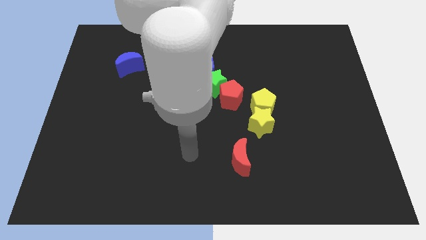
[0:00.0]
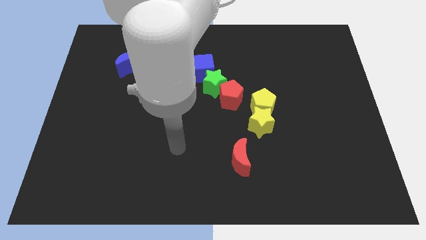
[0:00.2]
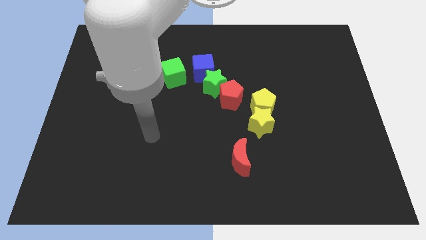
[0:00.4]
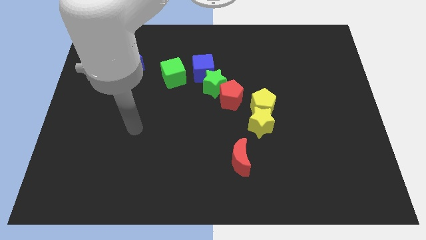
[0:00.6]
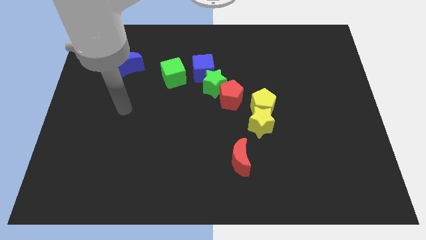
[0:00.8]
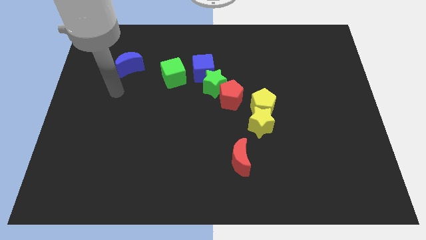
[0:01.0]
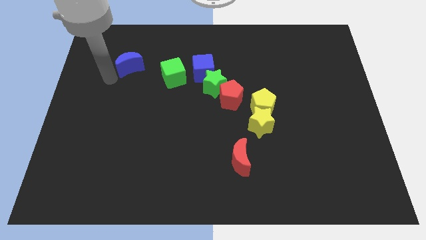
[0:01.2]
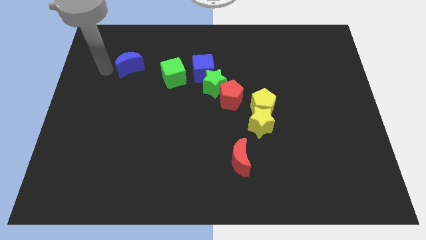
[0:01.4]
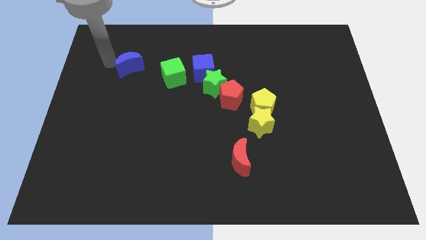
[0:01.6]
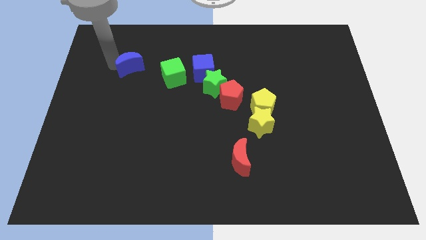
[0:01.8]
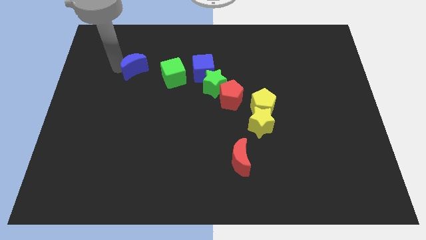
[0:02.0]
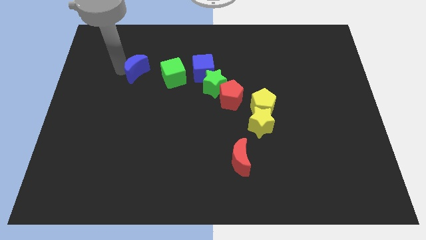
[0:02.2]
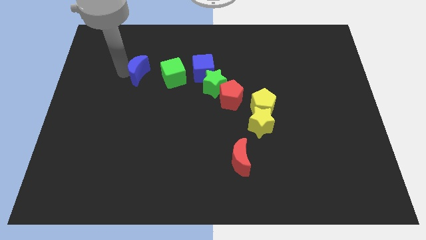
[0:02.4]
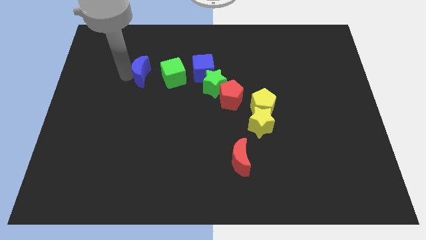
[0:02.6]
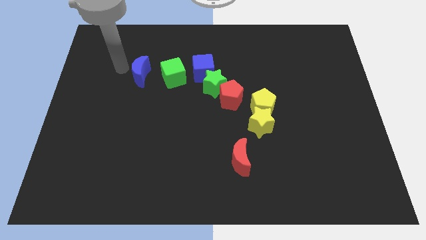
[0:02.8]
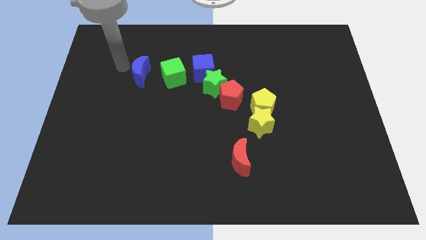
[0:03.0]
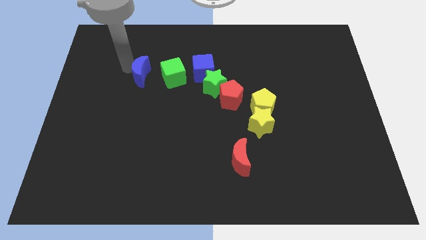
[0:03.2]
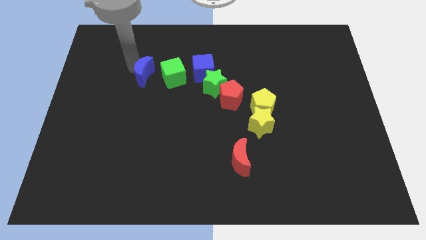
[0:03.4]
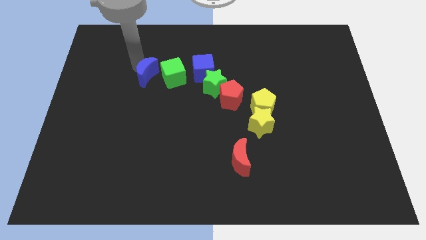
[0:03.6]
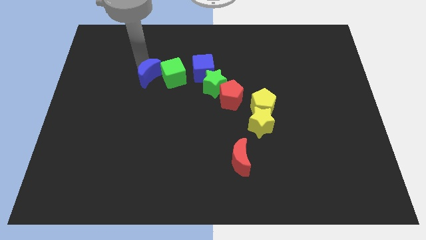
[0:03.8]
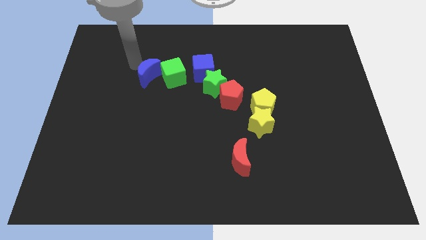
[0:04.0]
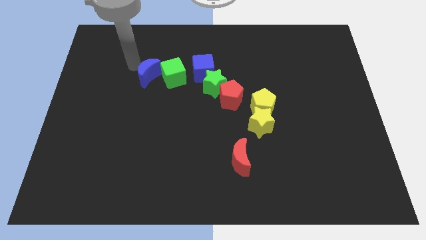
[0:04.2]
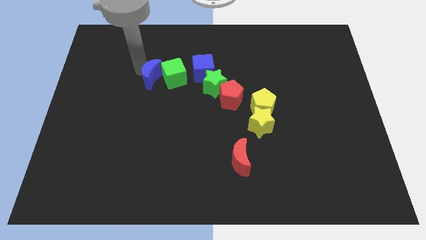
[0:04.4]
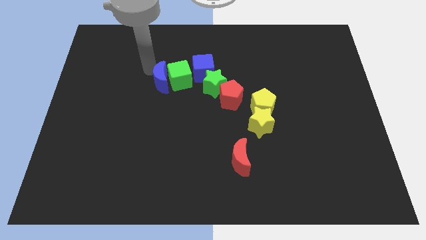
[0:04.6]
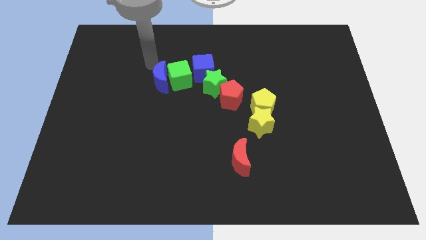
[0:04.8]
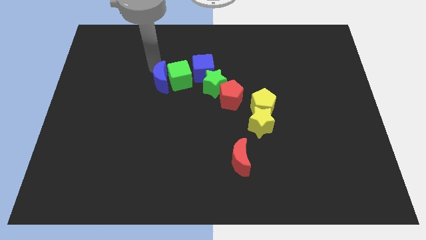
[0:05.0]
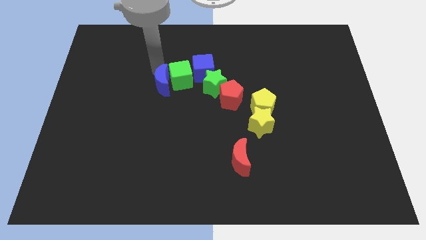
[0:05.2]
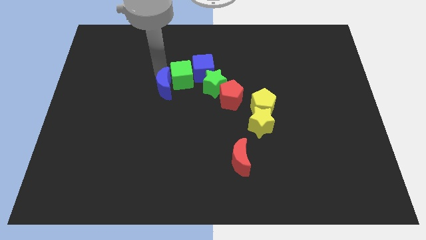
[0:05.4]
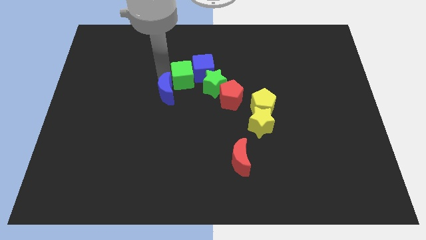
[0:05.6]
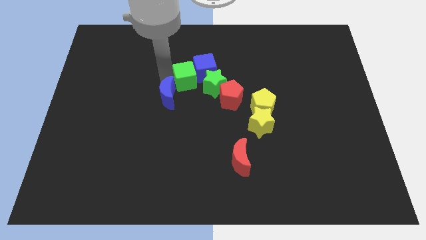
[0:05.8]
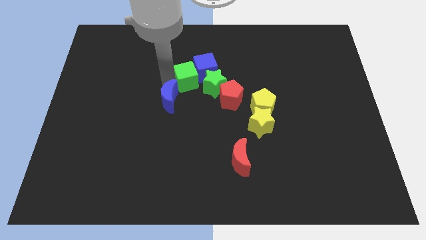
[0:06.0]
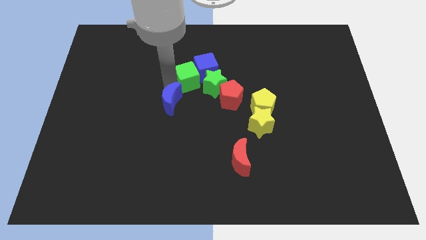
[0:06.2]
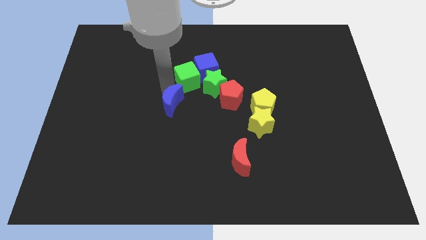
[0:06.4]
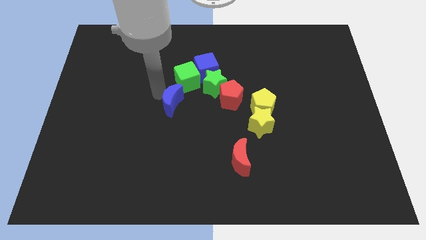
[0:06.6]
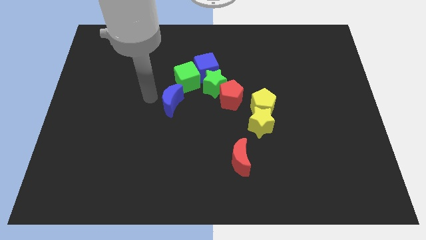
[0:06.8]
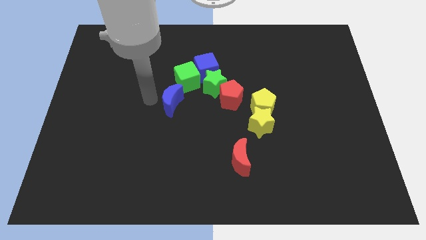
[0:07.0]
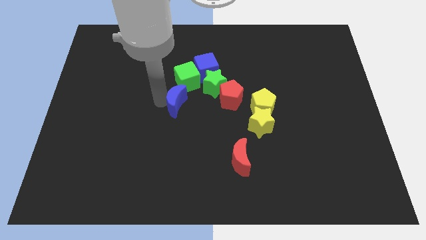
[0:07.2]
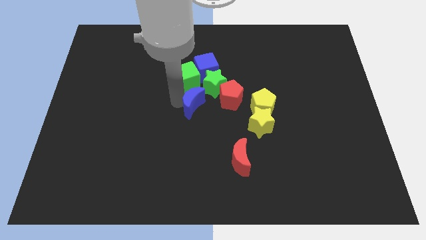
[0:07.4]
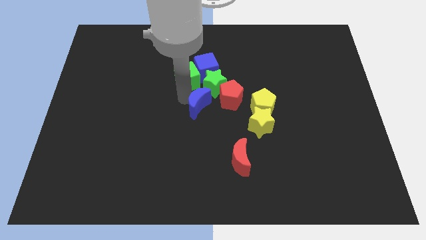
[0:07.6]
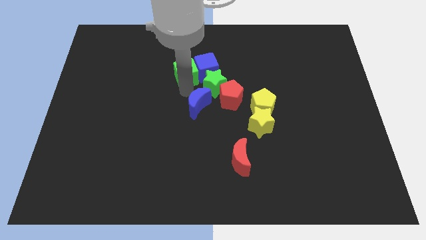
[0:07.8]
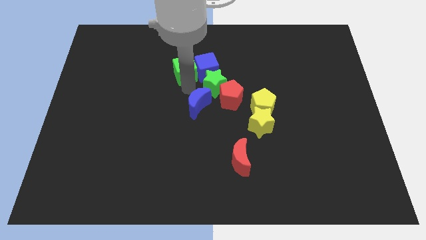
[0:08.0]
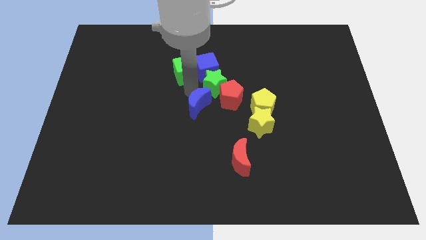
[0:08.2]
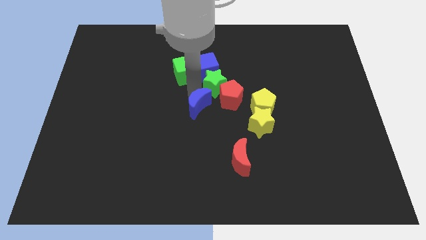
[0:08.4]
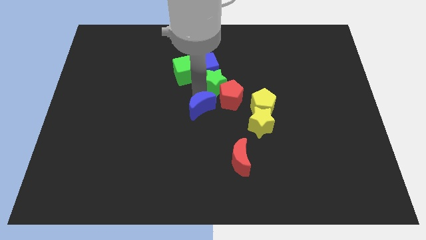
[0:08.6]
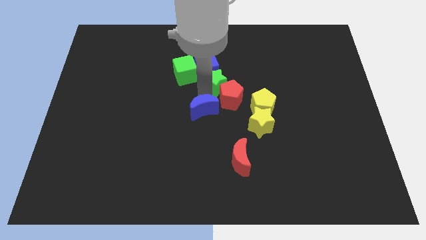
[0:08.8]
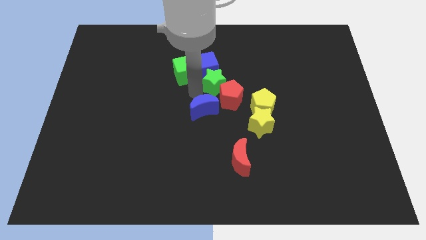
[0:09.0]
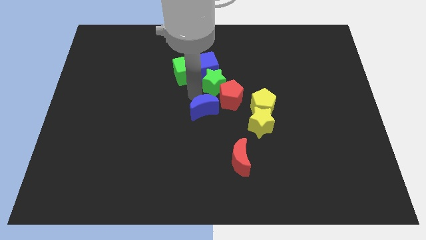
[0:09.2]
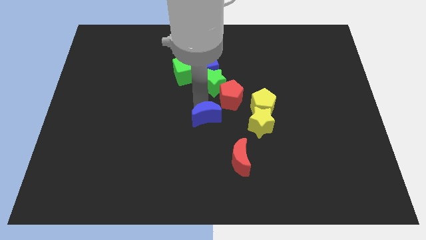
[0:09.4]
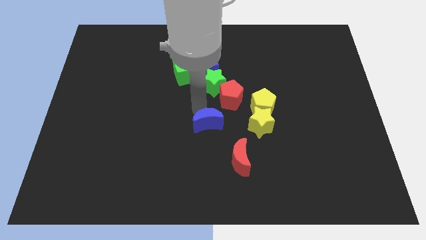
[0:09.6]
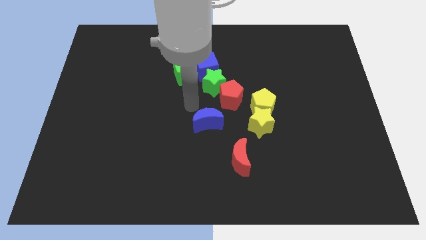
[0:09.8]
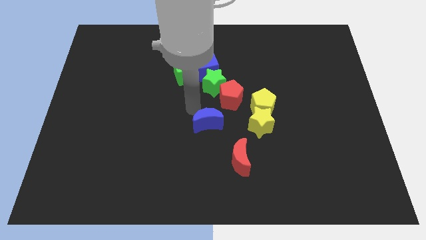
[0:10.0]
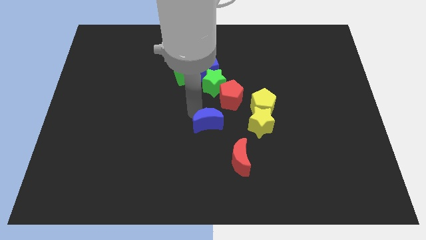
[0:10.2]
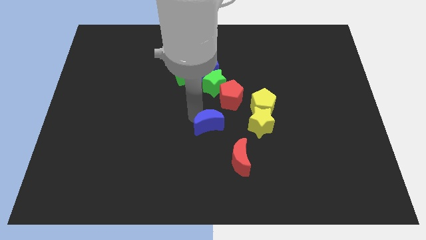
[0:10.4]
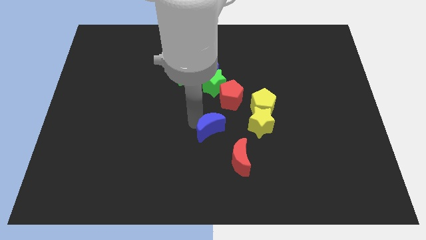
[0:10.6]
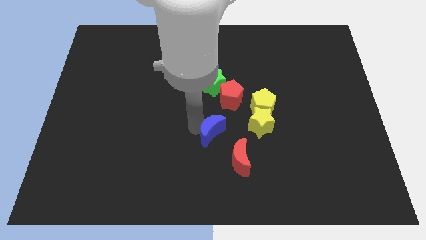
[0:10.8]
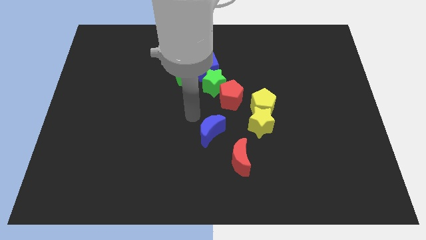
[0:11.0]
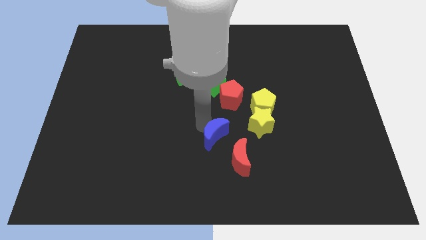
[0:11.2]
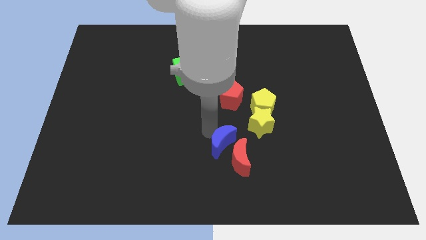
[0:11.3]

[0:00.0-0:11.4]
push the blue moon to the red moon

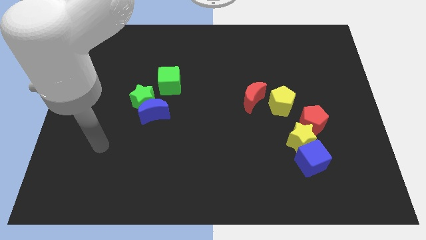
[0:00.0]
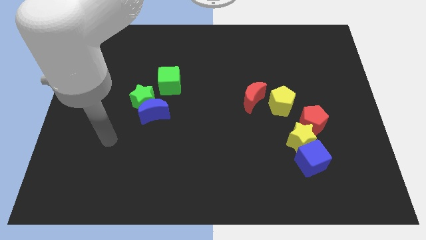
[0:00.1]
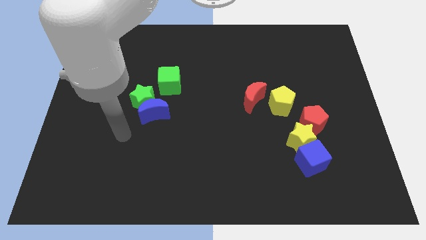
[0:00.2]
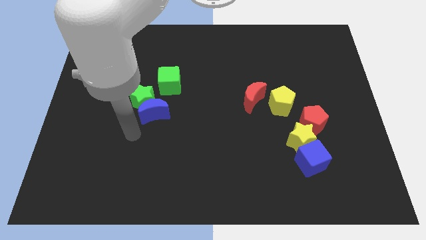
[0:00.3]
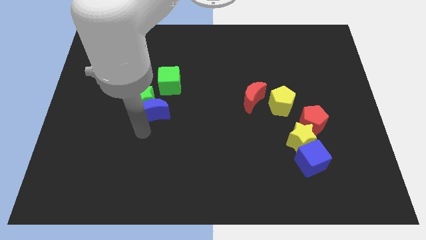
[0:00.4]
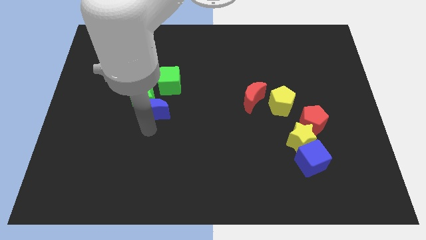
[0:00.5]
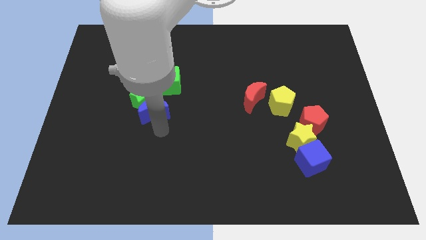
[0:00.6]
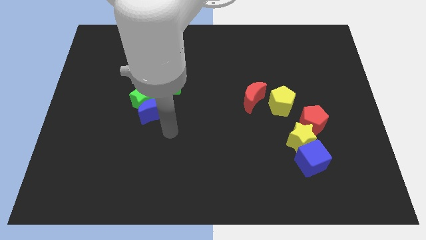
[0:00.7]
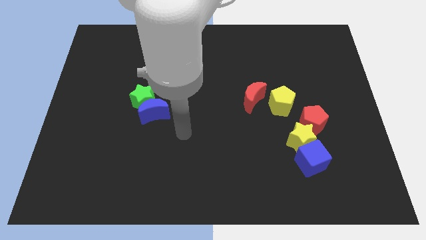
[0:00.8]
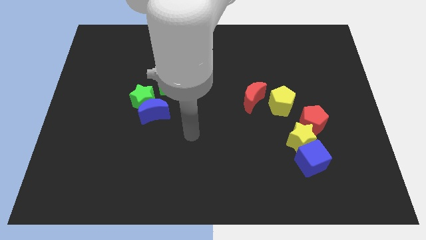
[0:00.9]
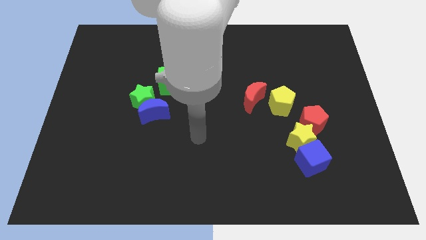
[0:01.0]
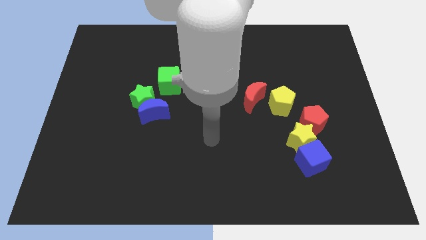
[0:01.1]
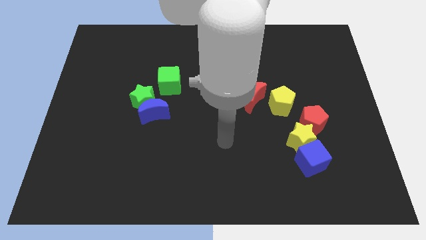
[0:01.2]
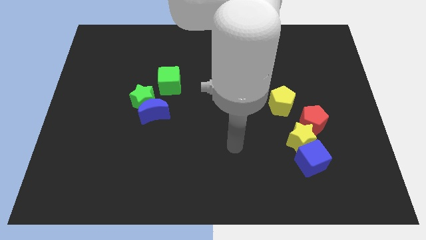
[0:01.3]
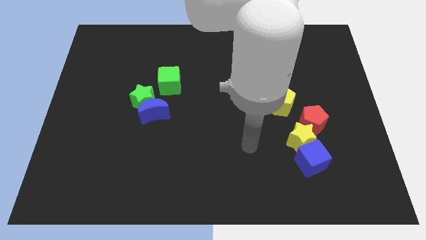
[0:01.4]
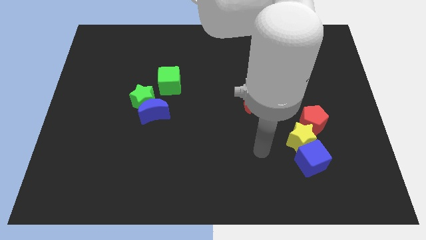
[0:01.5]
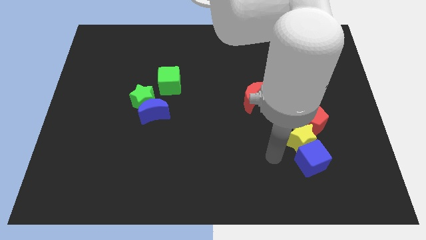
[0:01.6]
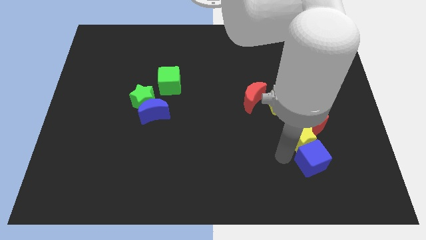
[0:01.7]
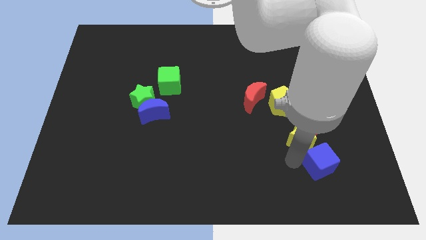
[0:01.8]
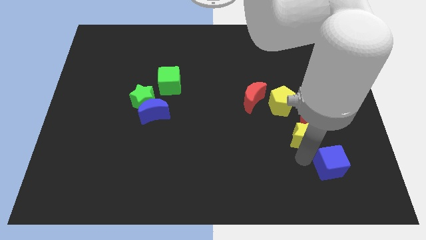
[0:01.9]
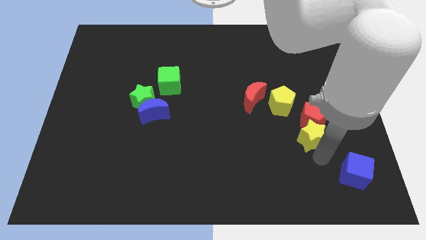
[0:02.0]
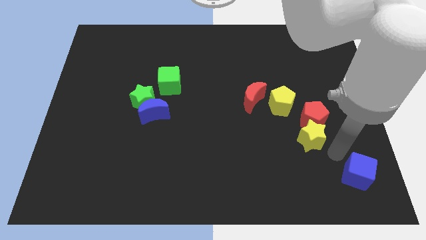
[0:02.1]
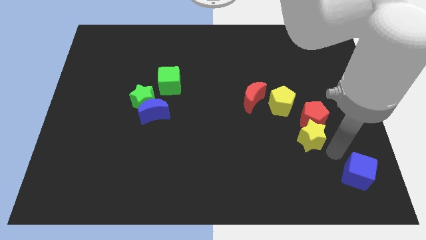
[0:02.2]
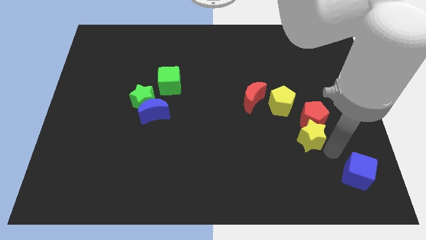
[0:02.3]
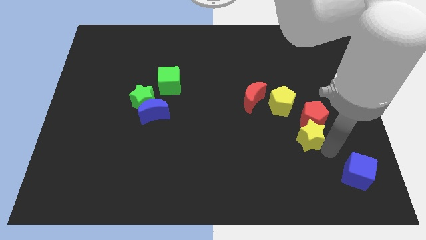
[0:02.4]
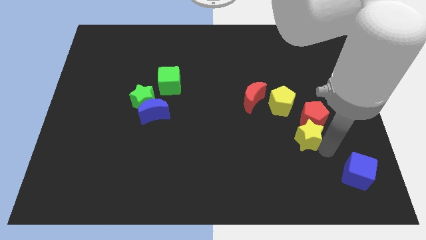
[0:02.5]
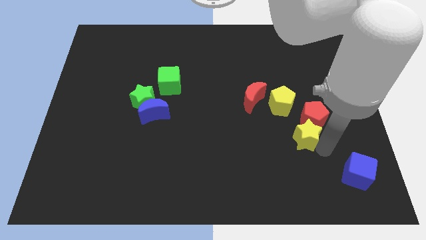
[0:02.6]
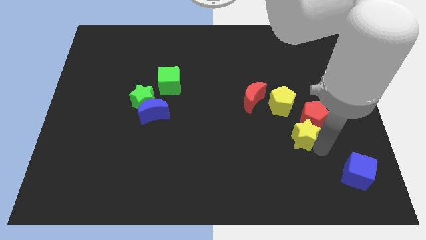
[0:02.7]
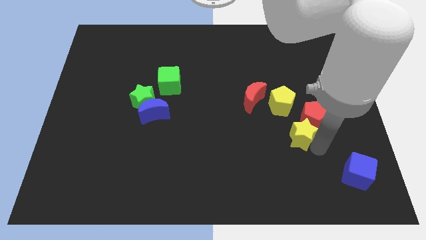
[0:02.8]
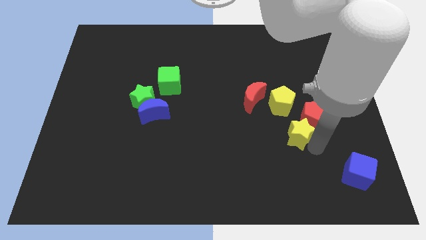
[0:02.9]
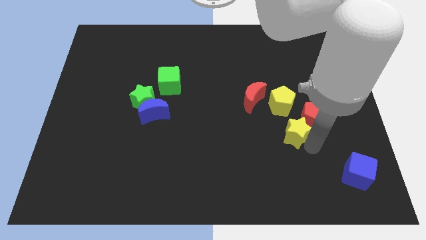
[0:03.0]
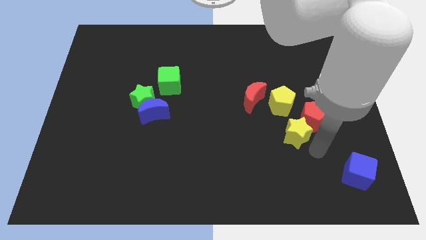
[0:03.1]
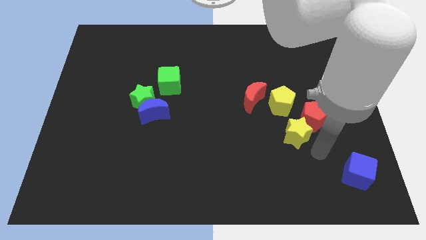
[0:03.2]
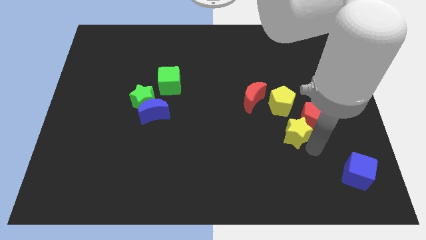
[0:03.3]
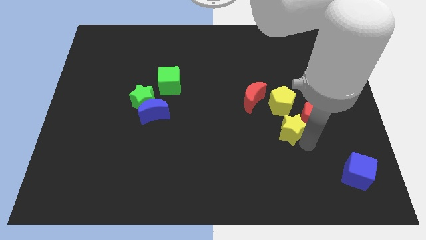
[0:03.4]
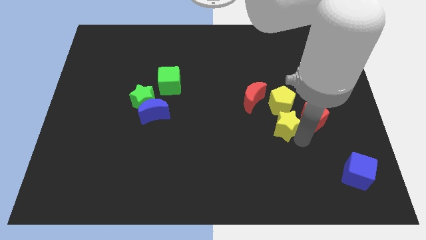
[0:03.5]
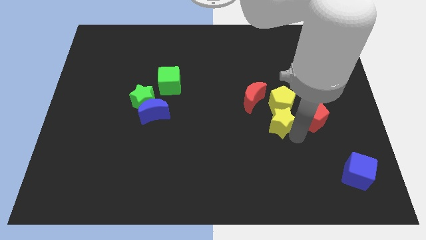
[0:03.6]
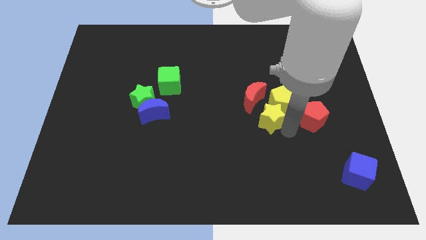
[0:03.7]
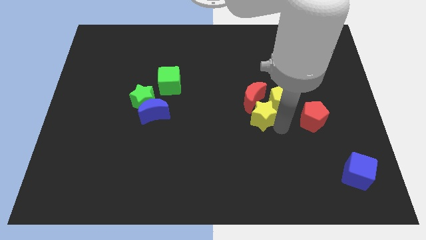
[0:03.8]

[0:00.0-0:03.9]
slide the yellow star close to the red moon
